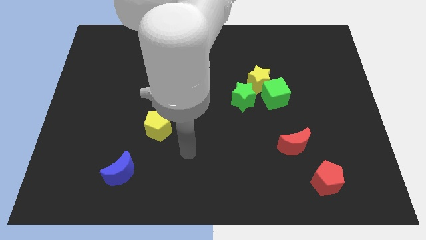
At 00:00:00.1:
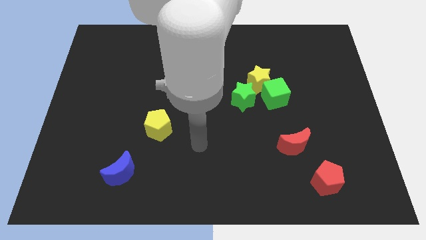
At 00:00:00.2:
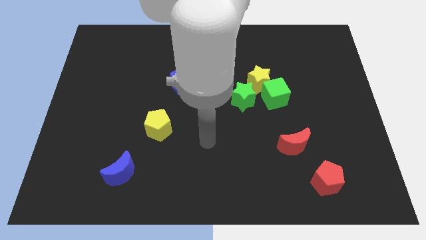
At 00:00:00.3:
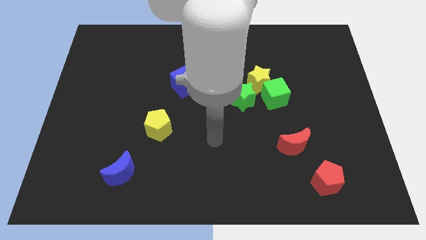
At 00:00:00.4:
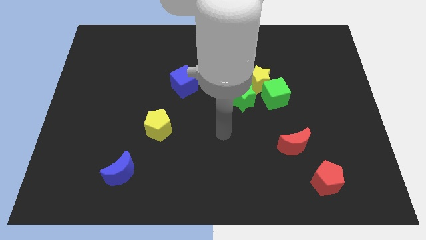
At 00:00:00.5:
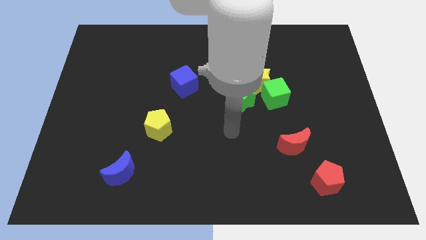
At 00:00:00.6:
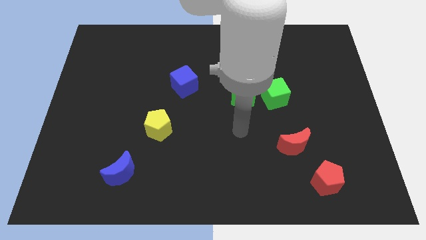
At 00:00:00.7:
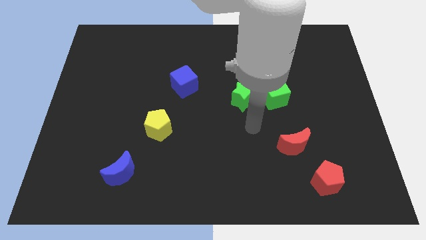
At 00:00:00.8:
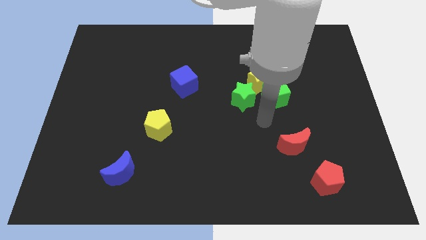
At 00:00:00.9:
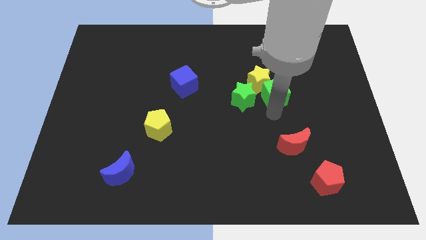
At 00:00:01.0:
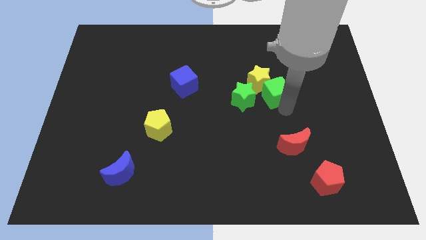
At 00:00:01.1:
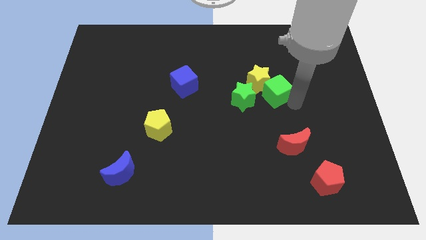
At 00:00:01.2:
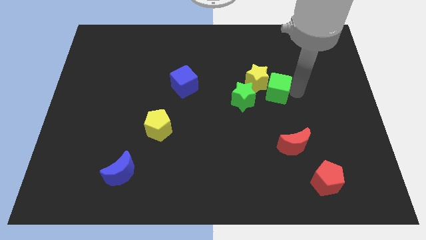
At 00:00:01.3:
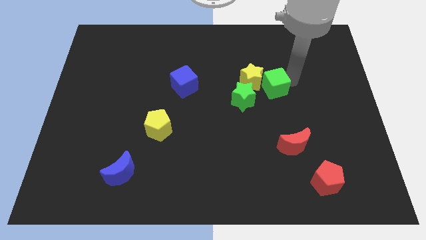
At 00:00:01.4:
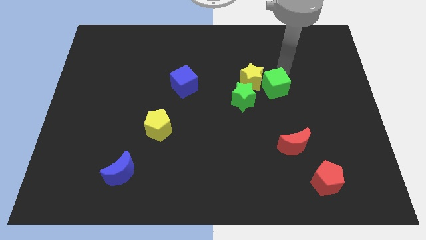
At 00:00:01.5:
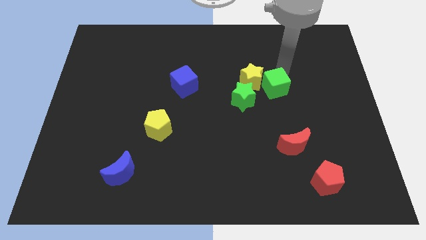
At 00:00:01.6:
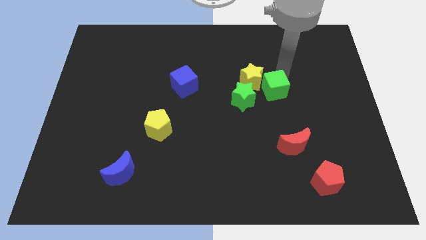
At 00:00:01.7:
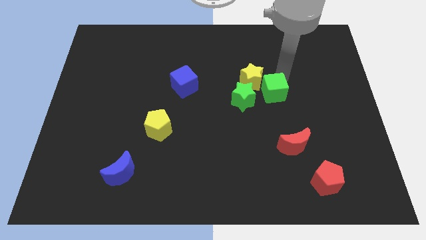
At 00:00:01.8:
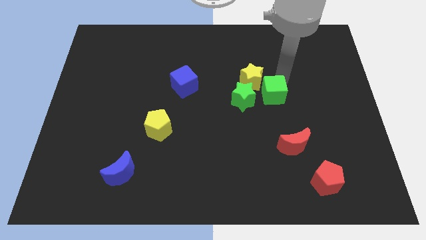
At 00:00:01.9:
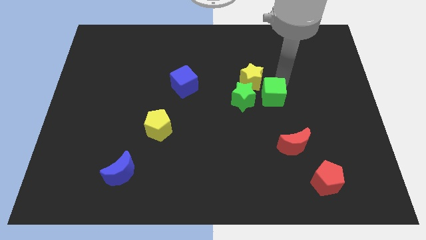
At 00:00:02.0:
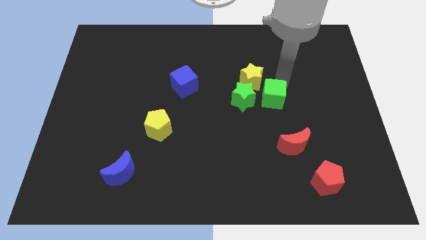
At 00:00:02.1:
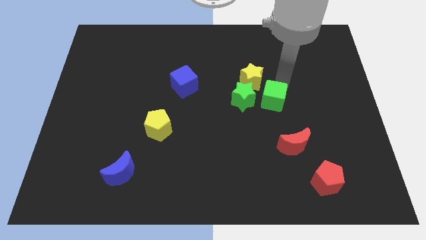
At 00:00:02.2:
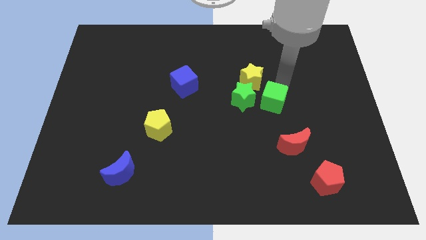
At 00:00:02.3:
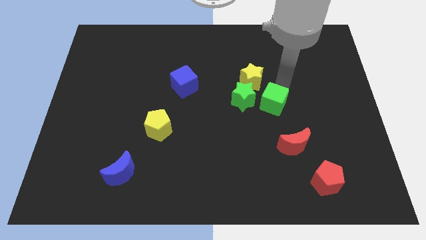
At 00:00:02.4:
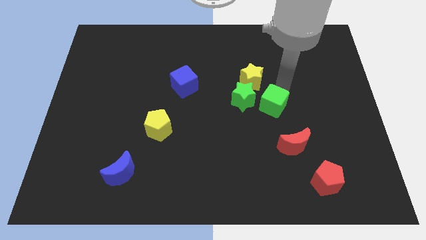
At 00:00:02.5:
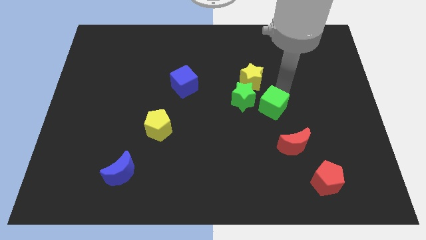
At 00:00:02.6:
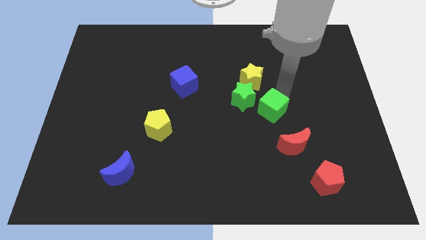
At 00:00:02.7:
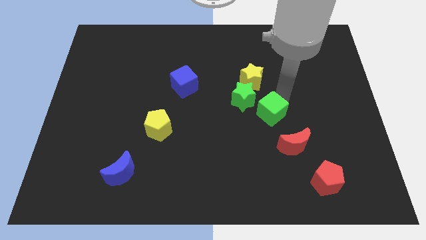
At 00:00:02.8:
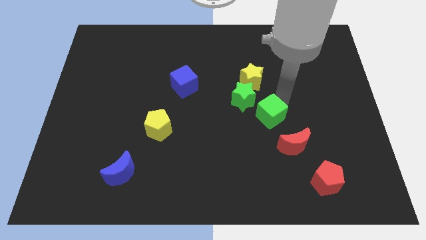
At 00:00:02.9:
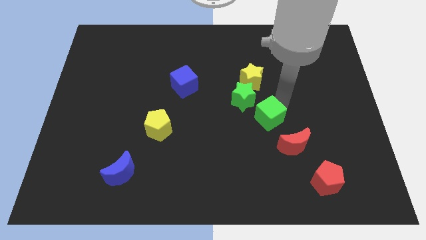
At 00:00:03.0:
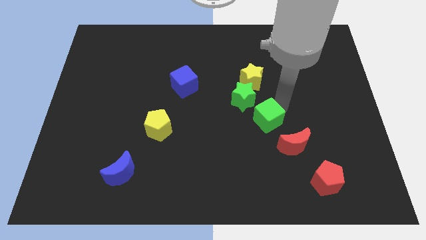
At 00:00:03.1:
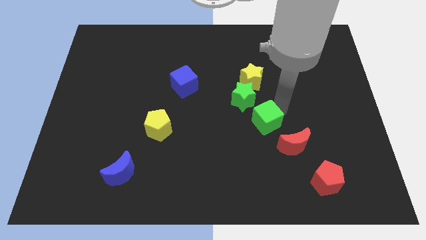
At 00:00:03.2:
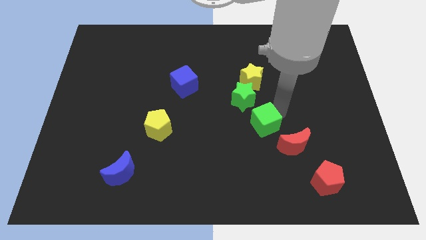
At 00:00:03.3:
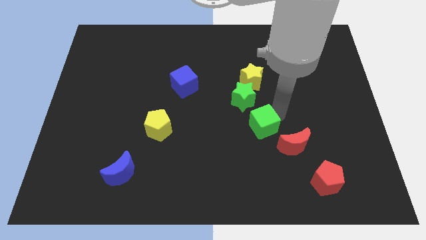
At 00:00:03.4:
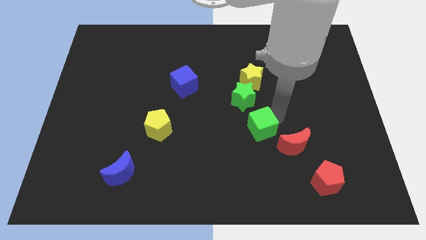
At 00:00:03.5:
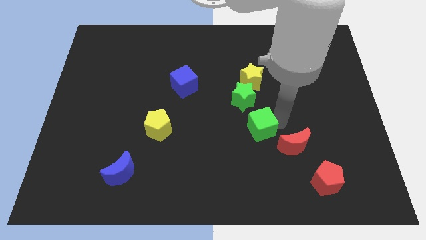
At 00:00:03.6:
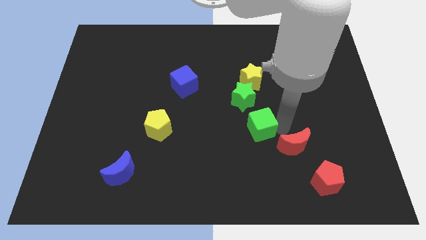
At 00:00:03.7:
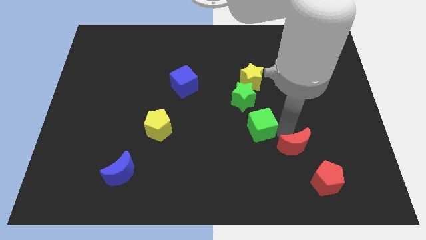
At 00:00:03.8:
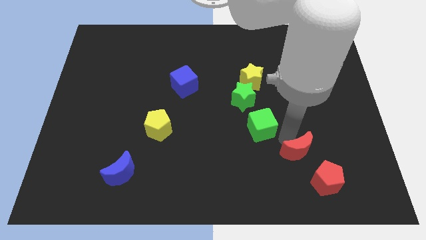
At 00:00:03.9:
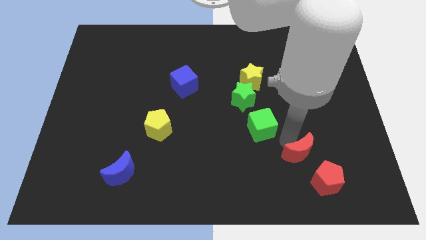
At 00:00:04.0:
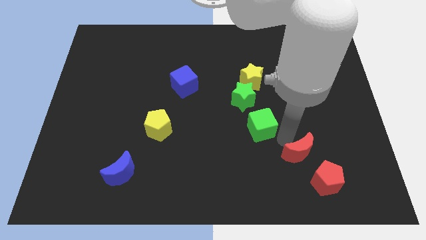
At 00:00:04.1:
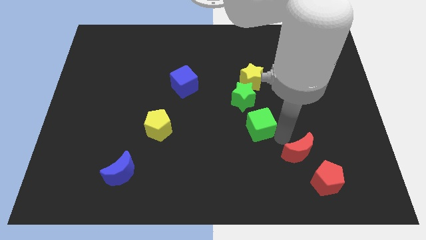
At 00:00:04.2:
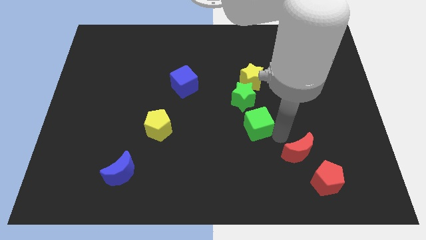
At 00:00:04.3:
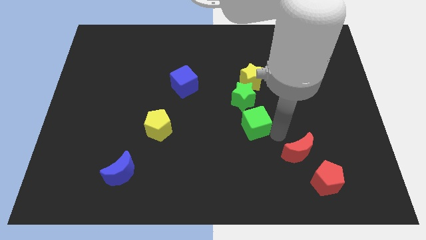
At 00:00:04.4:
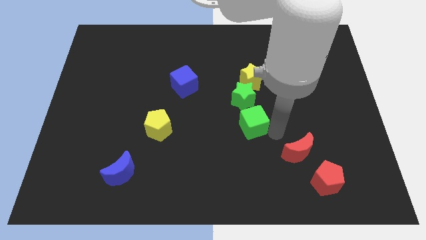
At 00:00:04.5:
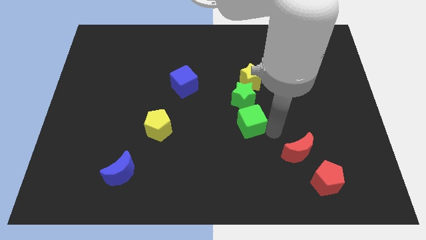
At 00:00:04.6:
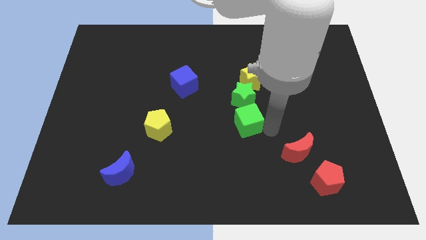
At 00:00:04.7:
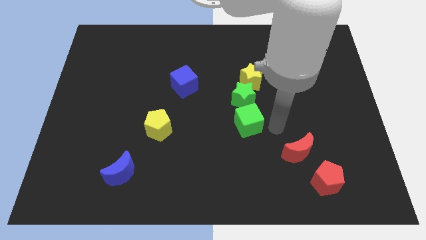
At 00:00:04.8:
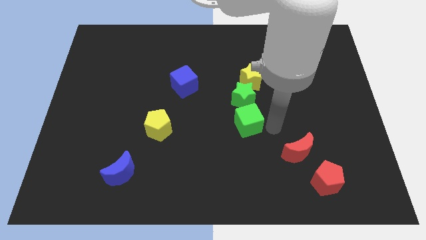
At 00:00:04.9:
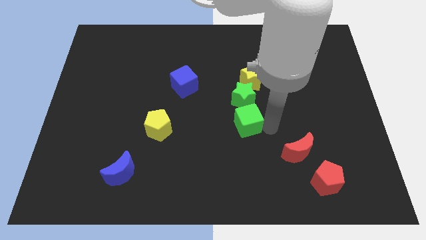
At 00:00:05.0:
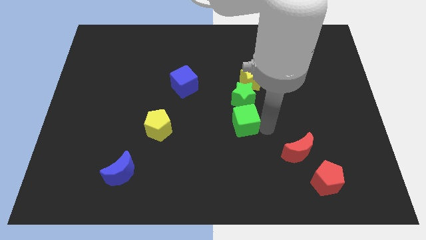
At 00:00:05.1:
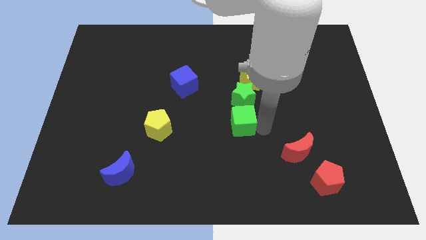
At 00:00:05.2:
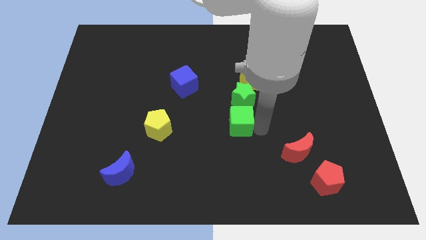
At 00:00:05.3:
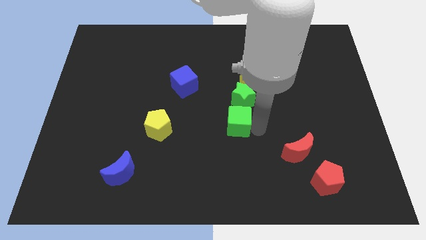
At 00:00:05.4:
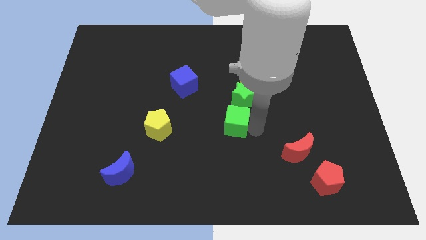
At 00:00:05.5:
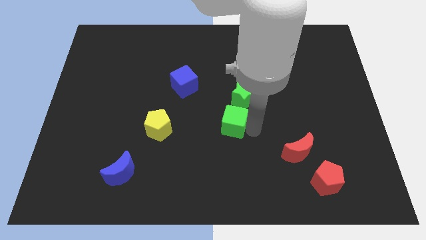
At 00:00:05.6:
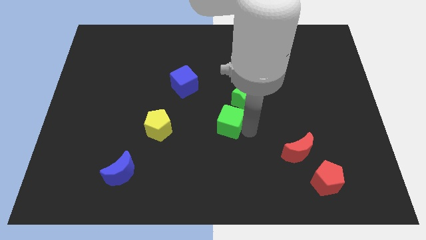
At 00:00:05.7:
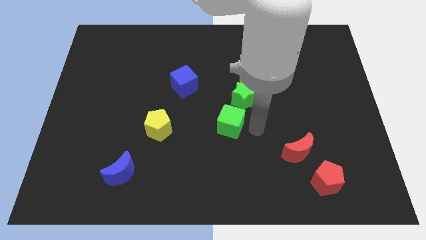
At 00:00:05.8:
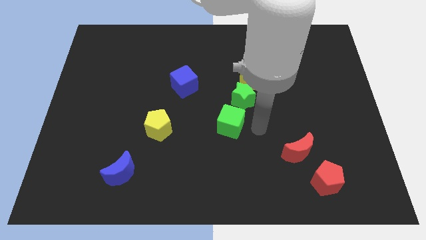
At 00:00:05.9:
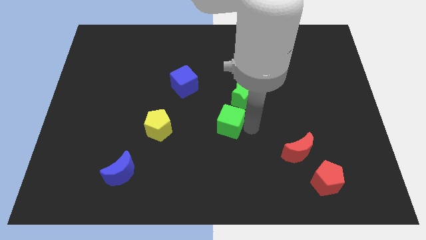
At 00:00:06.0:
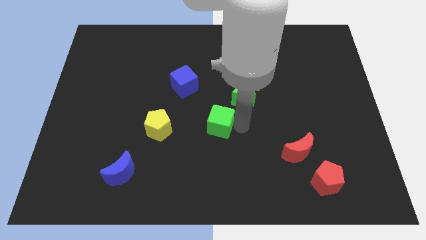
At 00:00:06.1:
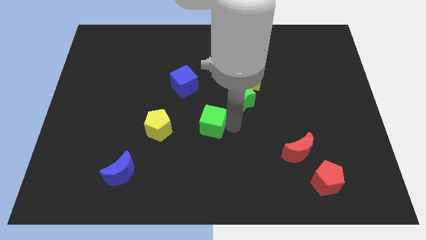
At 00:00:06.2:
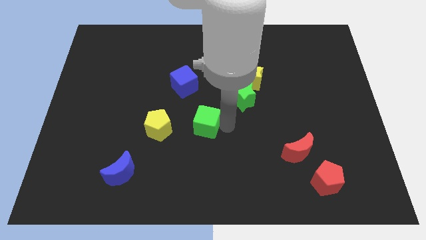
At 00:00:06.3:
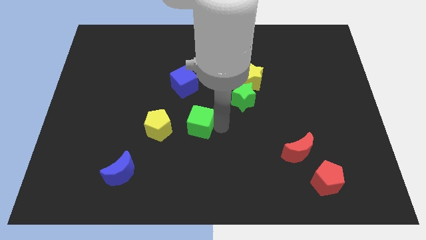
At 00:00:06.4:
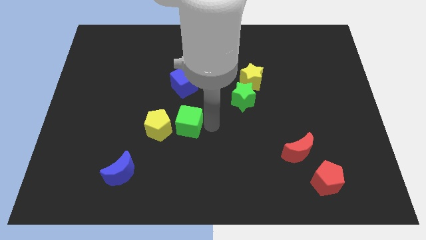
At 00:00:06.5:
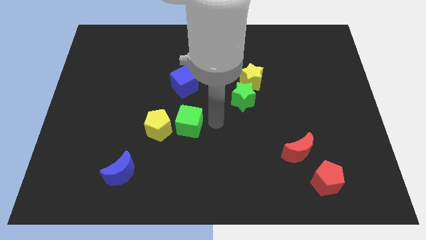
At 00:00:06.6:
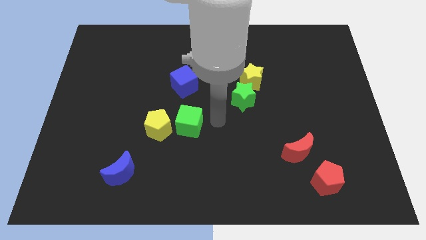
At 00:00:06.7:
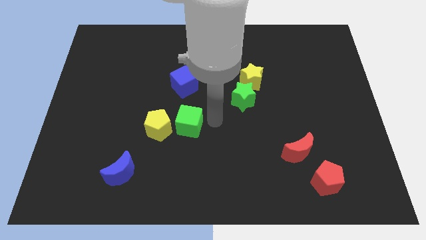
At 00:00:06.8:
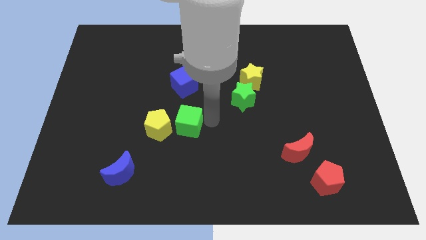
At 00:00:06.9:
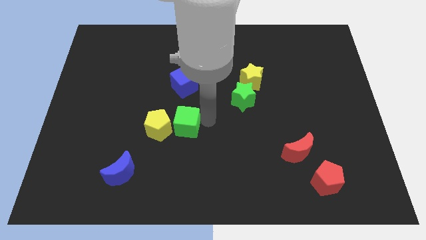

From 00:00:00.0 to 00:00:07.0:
push the green cube next to the yellow pentagon
